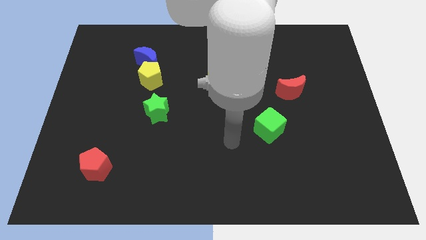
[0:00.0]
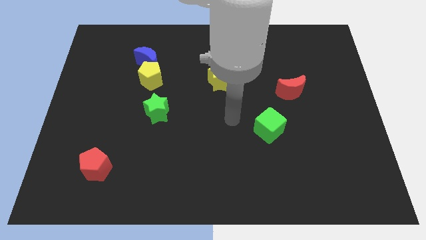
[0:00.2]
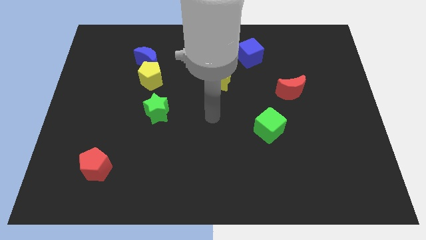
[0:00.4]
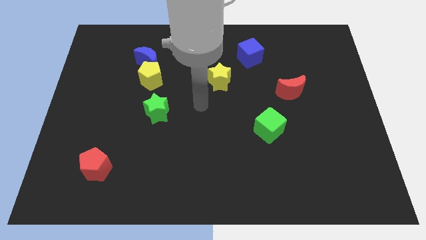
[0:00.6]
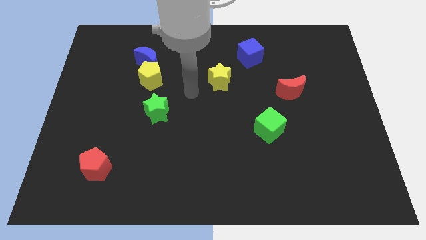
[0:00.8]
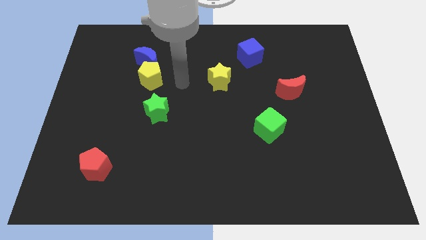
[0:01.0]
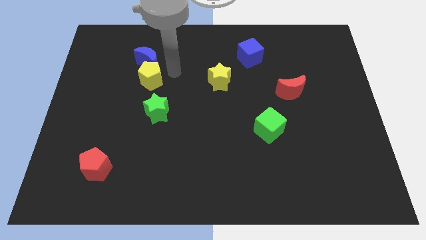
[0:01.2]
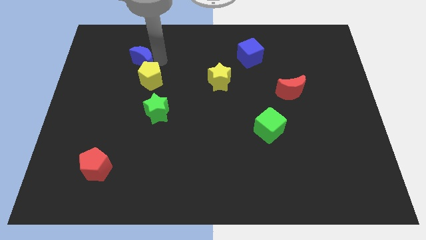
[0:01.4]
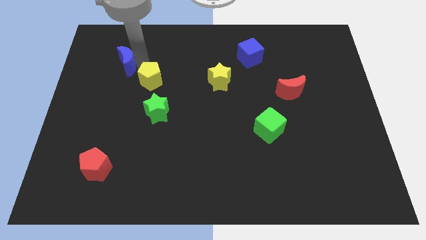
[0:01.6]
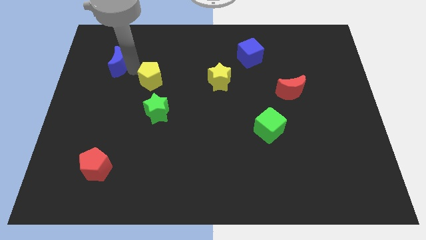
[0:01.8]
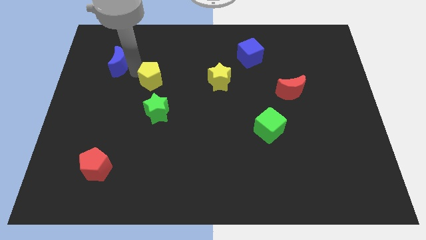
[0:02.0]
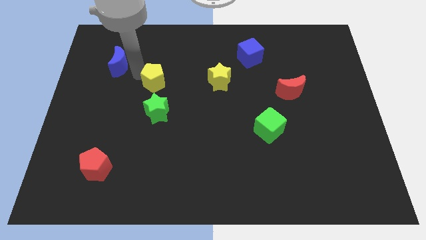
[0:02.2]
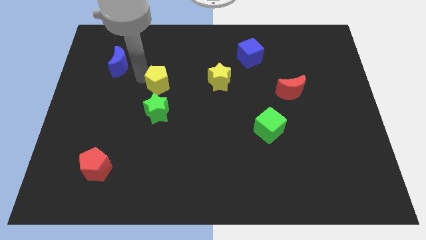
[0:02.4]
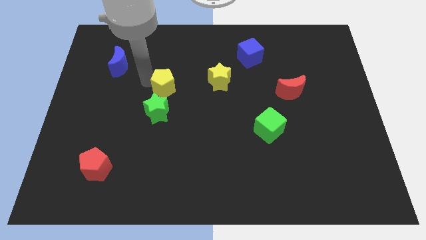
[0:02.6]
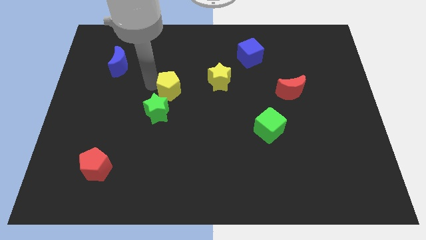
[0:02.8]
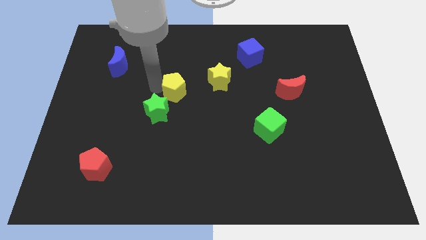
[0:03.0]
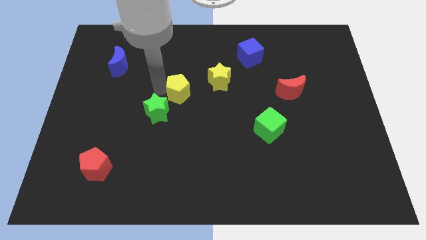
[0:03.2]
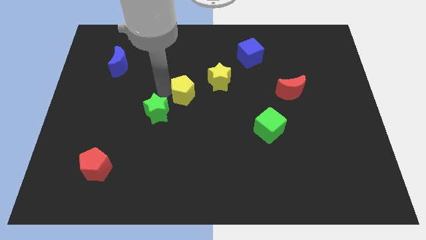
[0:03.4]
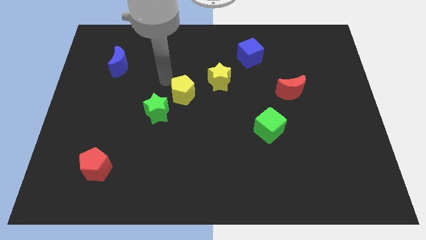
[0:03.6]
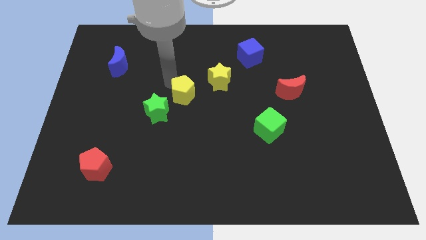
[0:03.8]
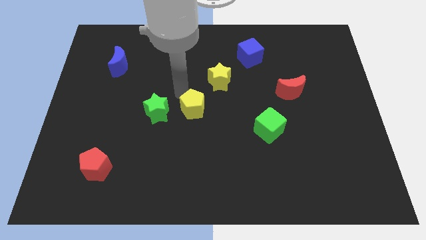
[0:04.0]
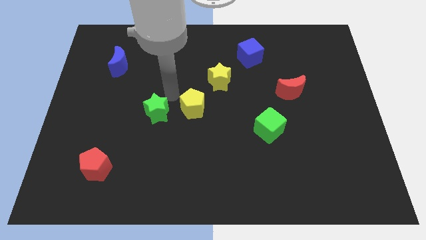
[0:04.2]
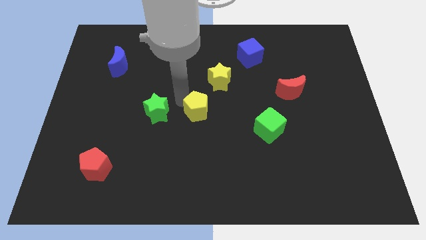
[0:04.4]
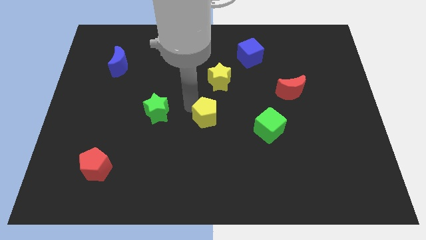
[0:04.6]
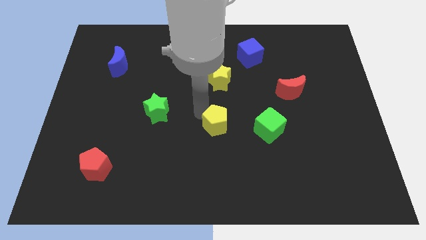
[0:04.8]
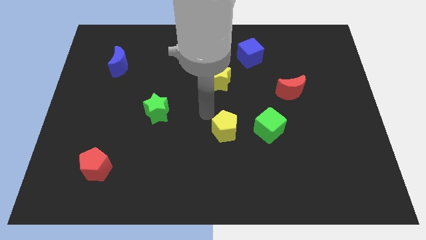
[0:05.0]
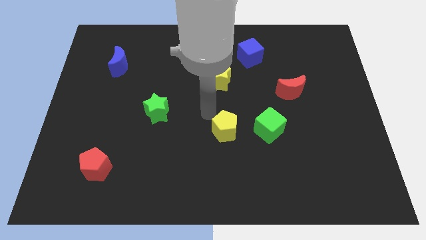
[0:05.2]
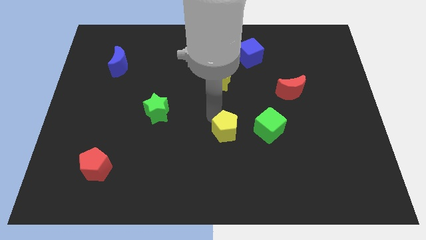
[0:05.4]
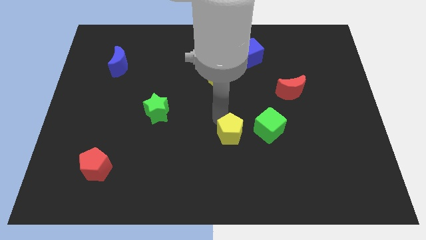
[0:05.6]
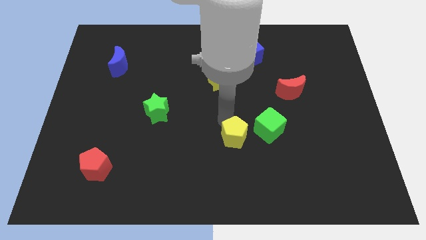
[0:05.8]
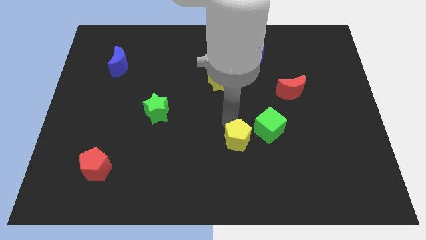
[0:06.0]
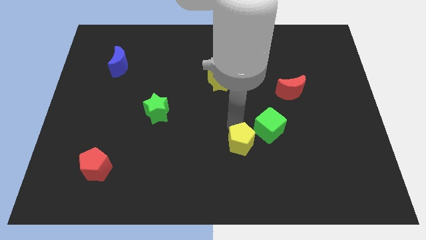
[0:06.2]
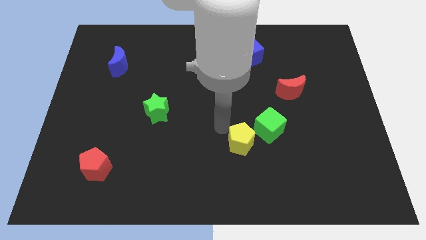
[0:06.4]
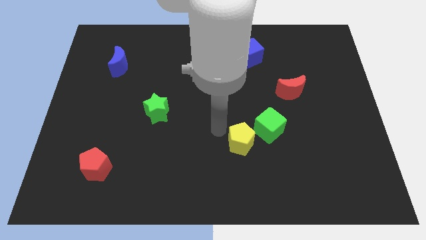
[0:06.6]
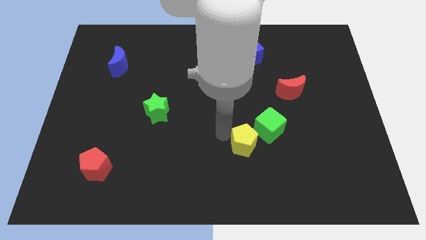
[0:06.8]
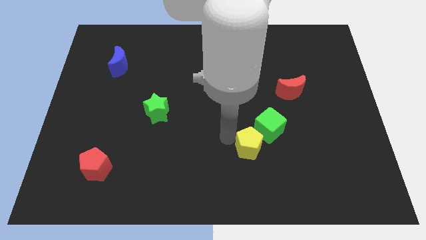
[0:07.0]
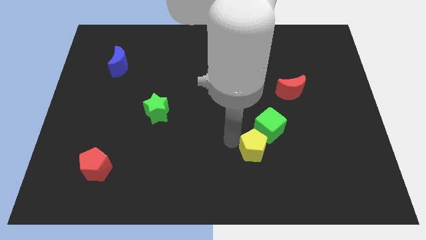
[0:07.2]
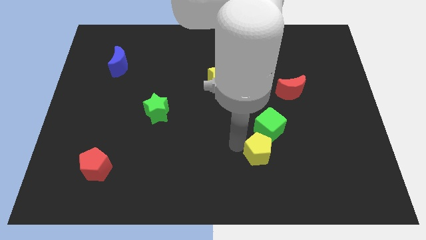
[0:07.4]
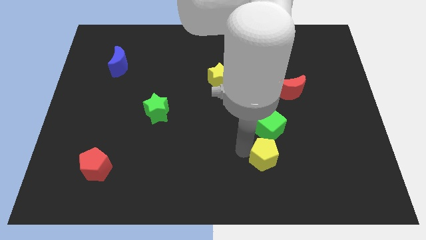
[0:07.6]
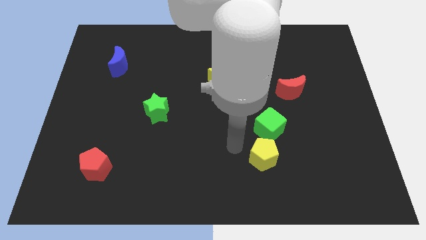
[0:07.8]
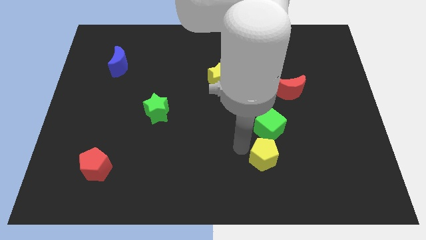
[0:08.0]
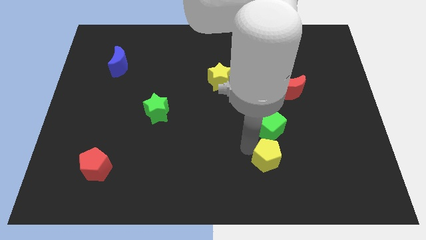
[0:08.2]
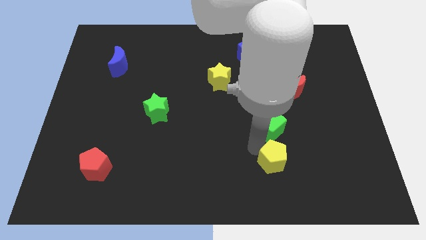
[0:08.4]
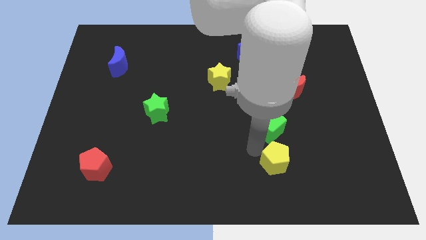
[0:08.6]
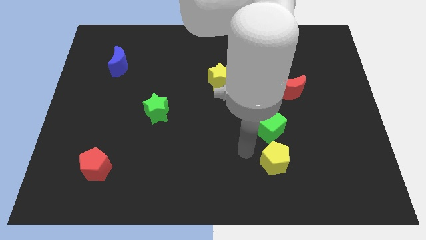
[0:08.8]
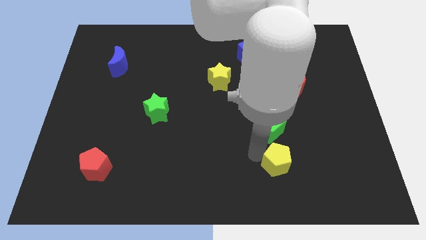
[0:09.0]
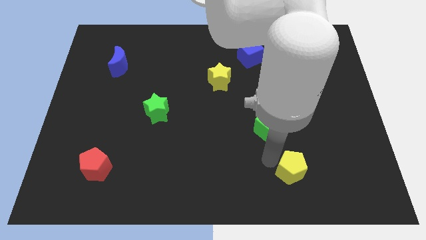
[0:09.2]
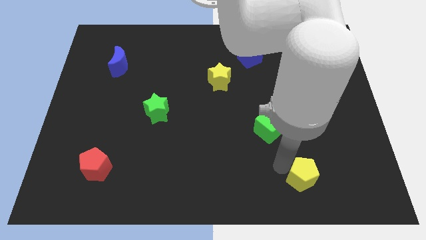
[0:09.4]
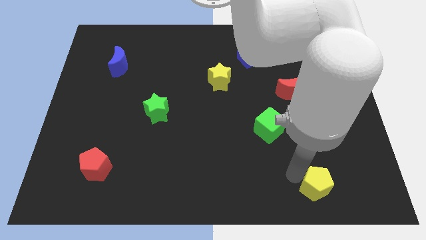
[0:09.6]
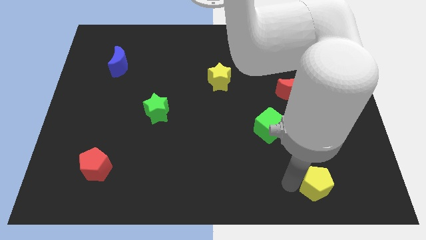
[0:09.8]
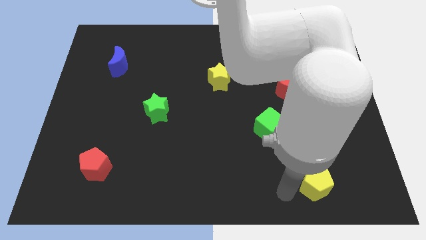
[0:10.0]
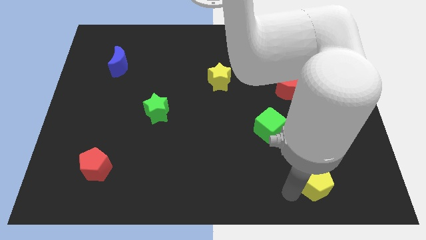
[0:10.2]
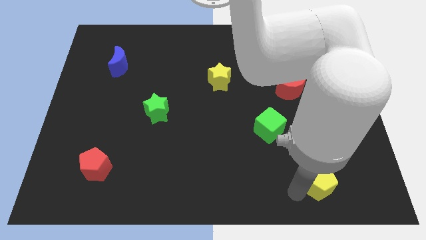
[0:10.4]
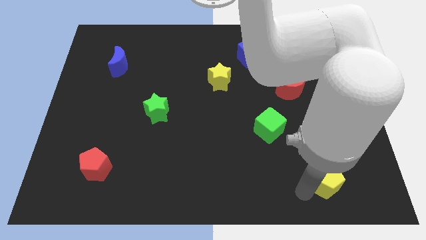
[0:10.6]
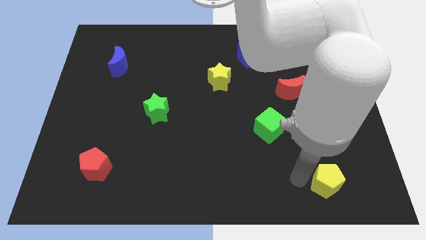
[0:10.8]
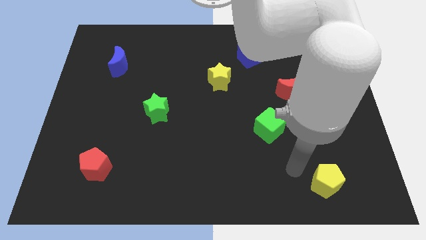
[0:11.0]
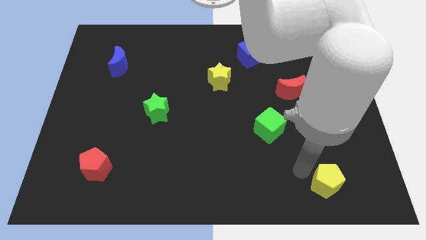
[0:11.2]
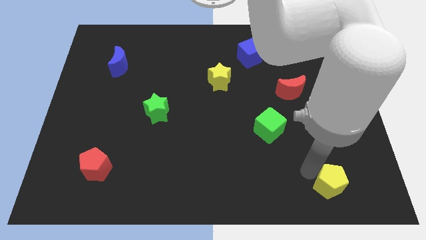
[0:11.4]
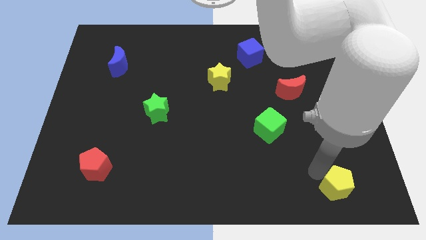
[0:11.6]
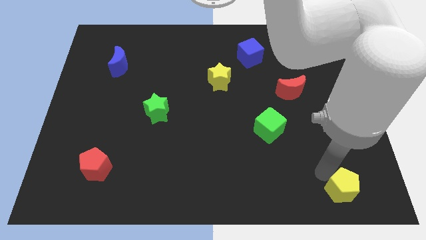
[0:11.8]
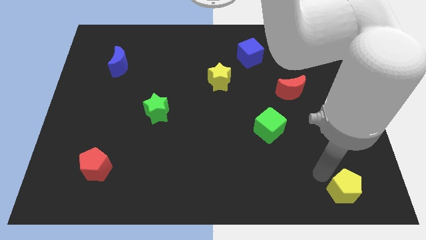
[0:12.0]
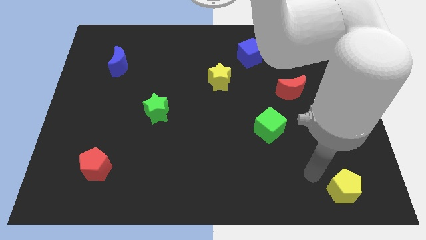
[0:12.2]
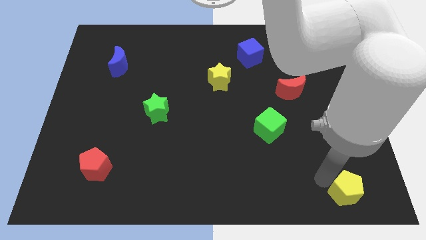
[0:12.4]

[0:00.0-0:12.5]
put the yellow pentagon to the bottom right
